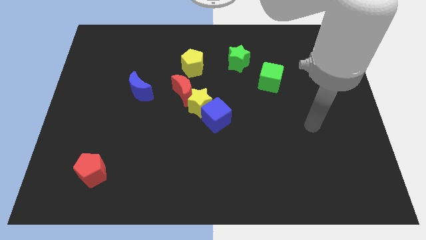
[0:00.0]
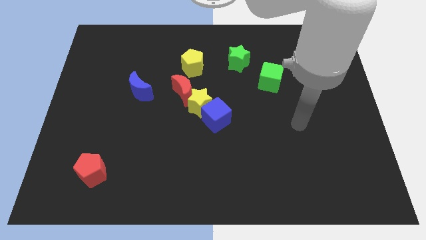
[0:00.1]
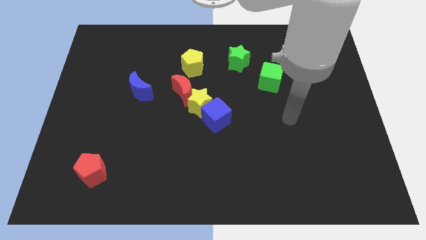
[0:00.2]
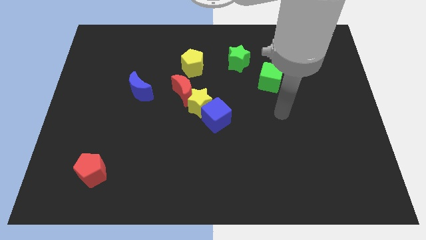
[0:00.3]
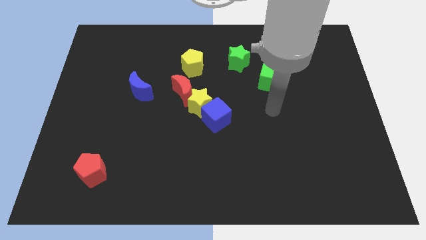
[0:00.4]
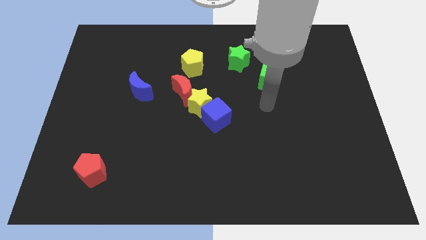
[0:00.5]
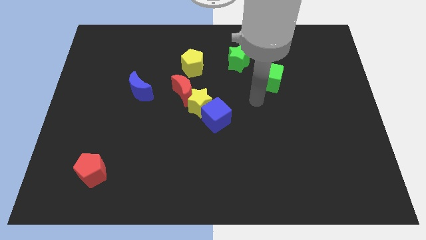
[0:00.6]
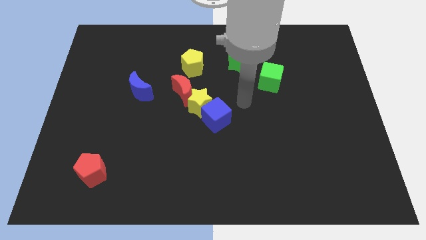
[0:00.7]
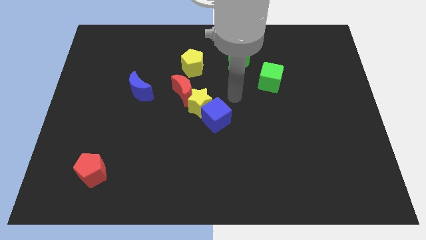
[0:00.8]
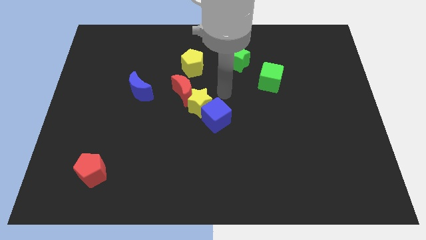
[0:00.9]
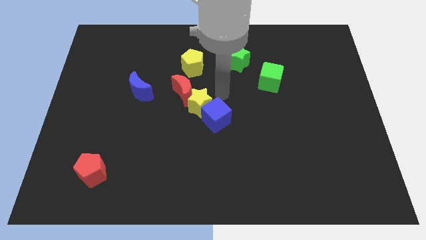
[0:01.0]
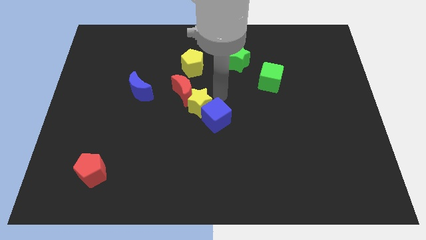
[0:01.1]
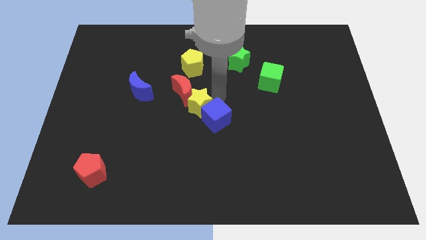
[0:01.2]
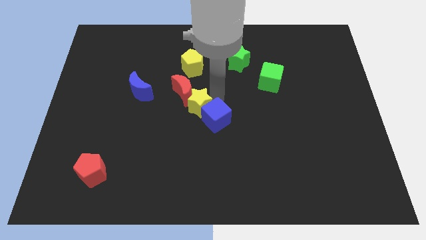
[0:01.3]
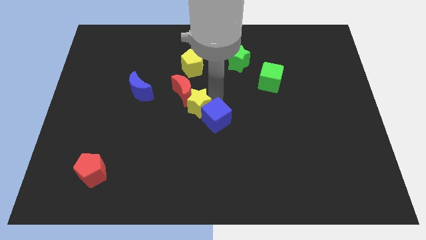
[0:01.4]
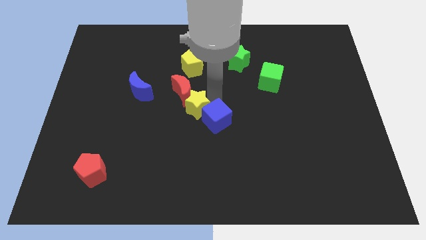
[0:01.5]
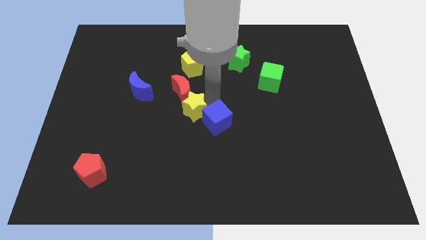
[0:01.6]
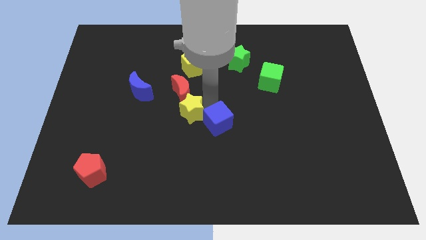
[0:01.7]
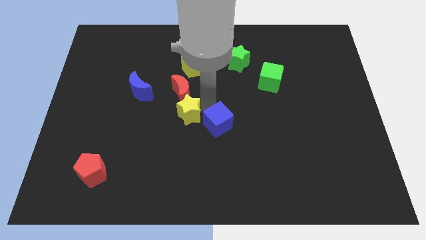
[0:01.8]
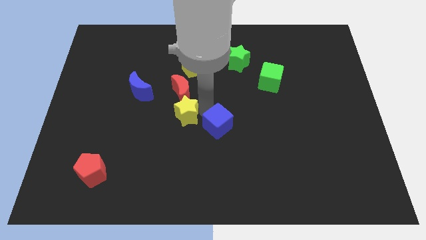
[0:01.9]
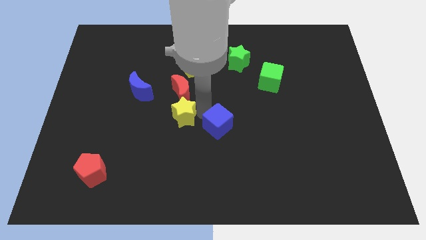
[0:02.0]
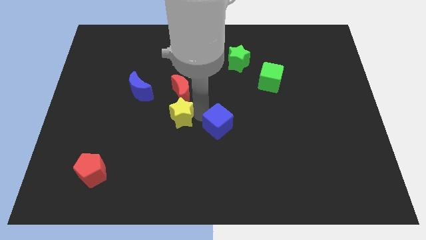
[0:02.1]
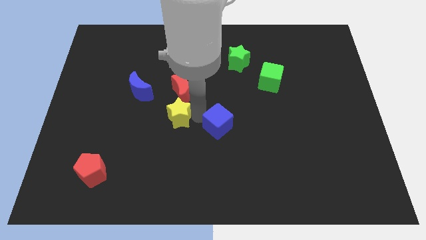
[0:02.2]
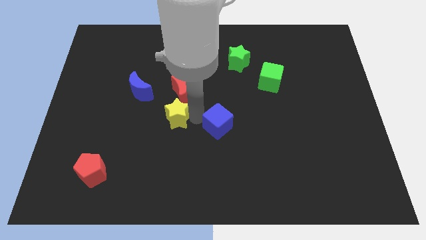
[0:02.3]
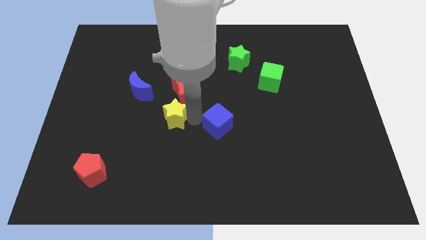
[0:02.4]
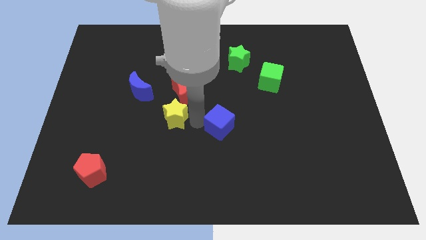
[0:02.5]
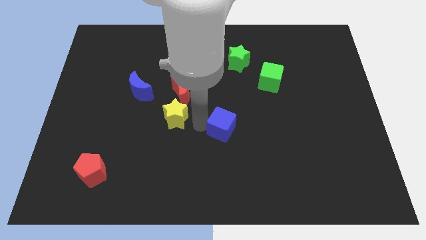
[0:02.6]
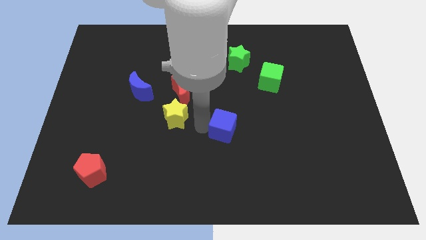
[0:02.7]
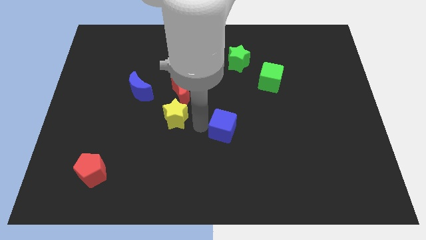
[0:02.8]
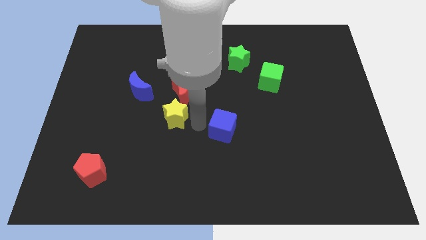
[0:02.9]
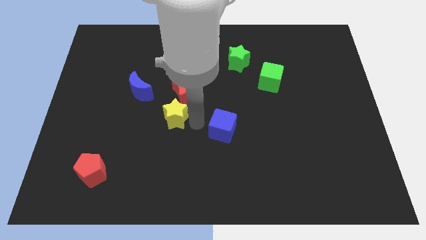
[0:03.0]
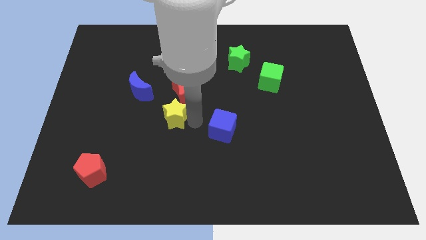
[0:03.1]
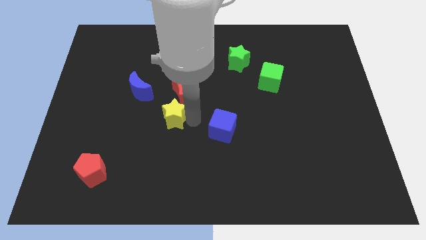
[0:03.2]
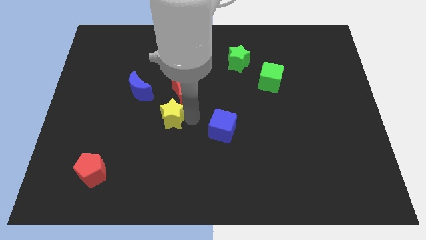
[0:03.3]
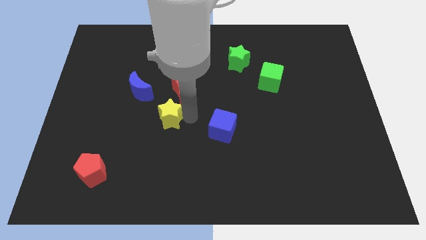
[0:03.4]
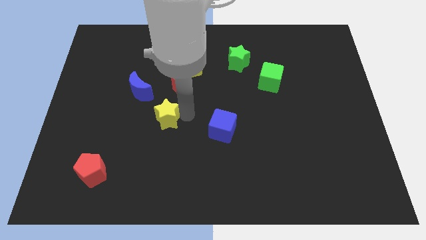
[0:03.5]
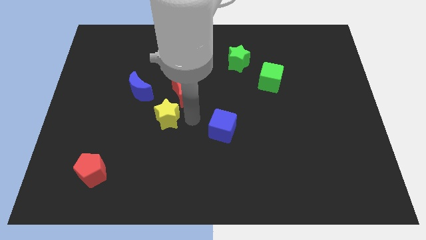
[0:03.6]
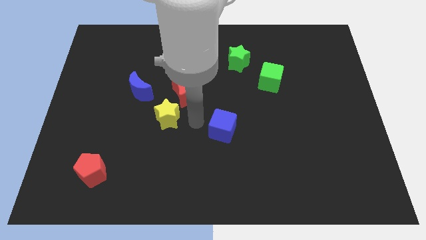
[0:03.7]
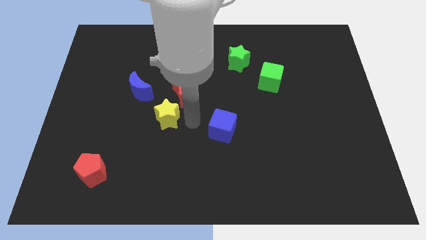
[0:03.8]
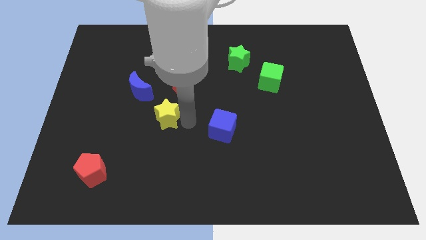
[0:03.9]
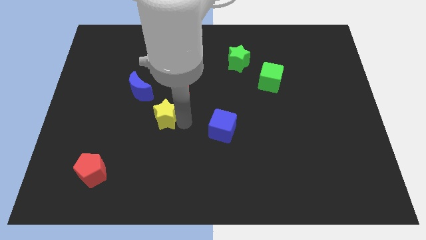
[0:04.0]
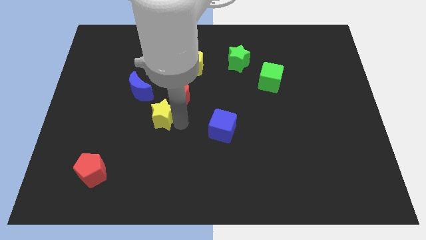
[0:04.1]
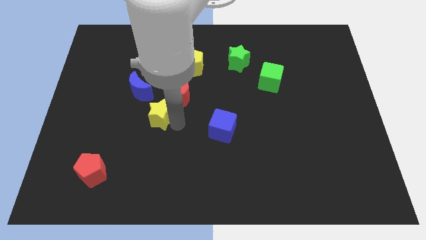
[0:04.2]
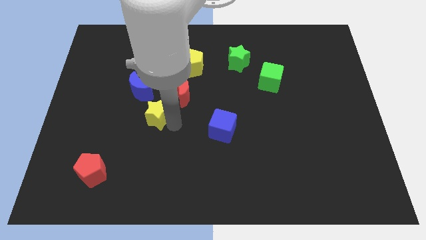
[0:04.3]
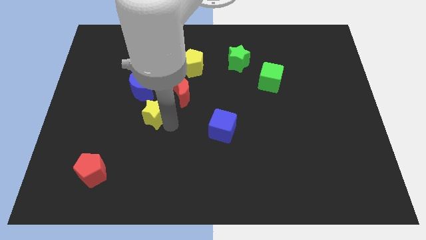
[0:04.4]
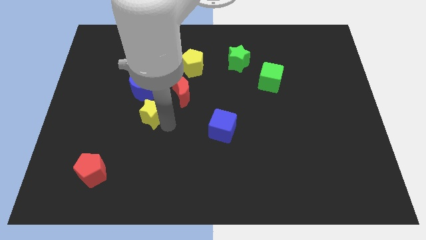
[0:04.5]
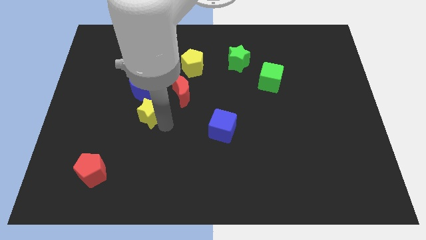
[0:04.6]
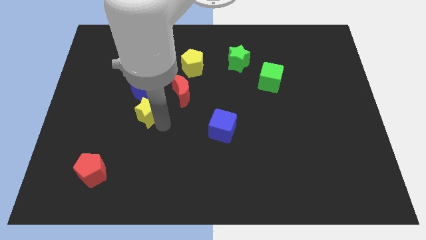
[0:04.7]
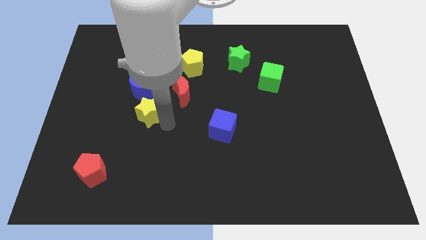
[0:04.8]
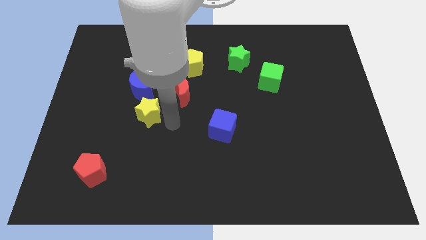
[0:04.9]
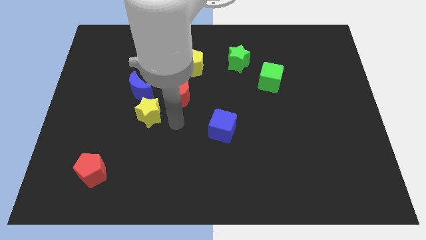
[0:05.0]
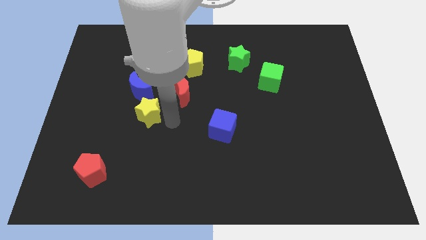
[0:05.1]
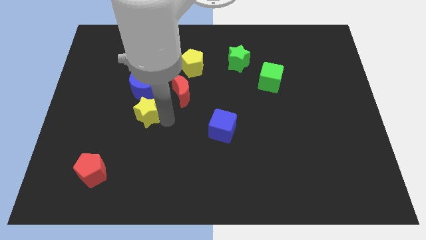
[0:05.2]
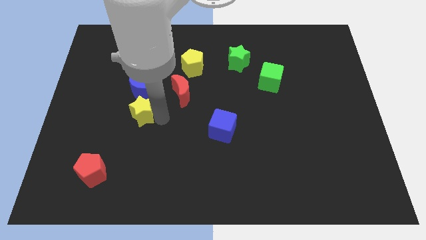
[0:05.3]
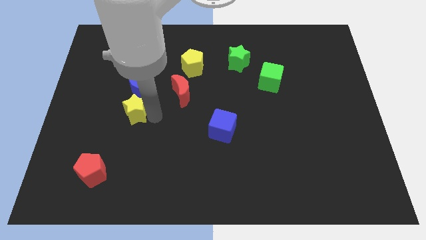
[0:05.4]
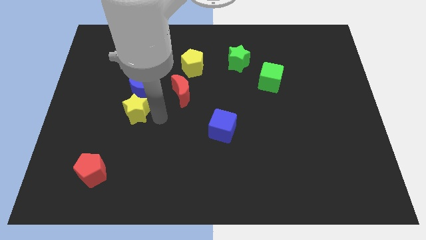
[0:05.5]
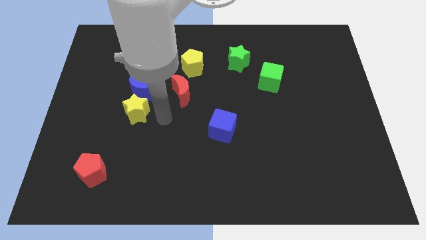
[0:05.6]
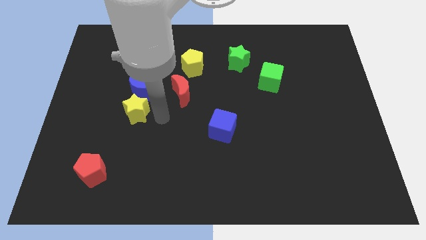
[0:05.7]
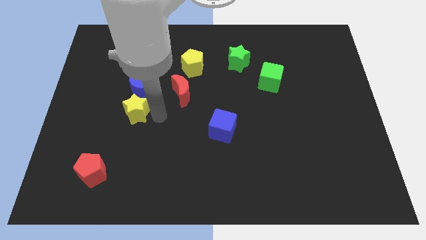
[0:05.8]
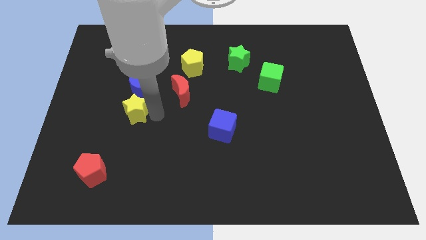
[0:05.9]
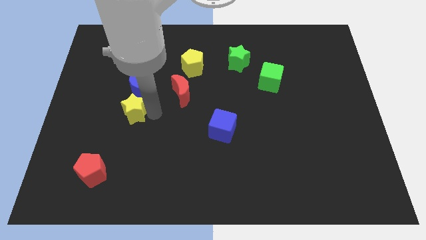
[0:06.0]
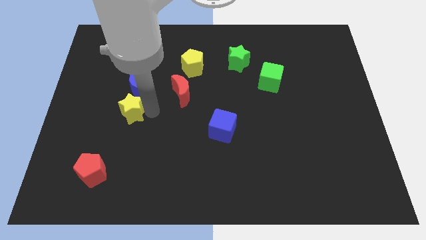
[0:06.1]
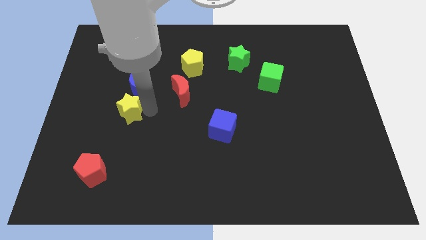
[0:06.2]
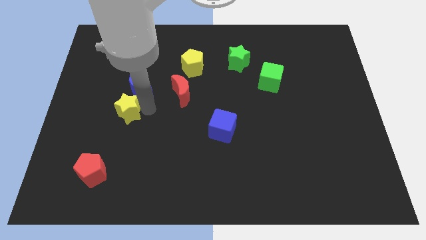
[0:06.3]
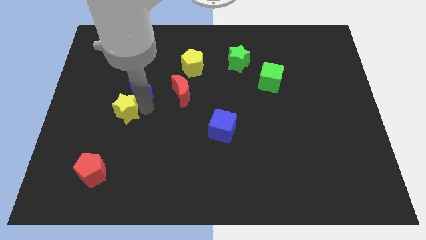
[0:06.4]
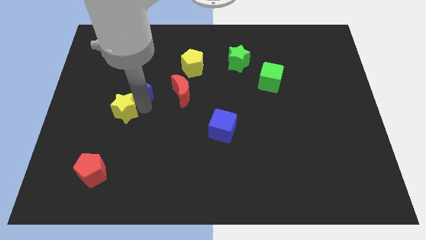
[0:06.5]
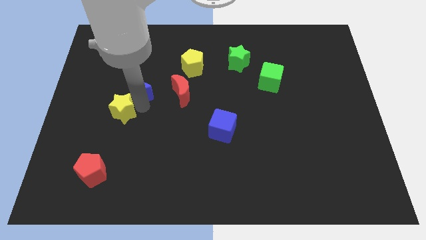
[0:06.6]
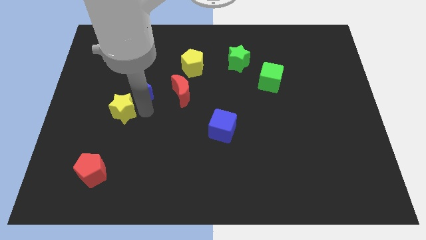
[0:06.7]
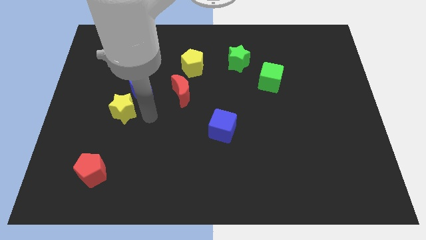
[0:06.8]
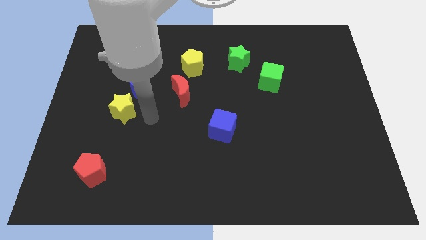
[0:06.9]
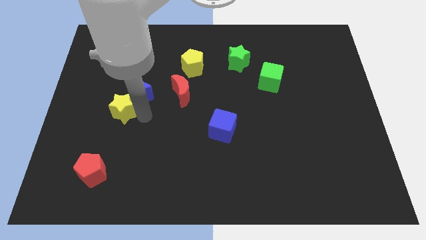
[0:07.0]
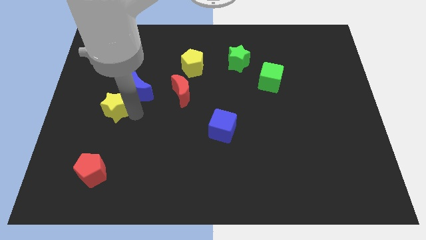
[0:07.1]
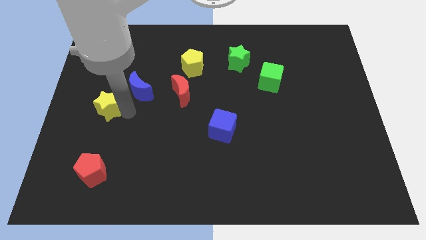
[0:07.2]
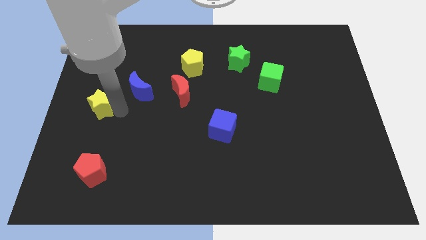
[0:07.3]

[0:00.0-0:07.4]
move the yellow star to the center left
